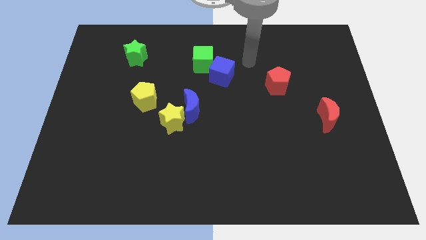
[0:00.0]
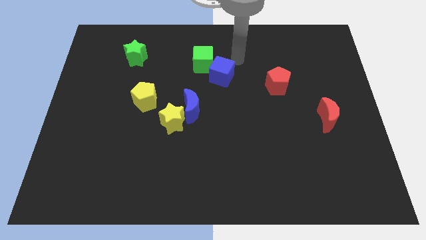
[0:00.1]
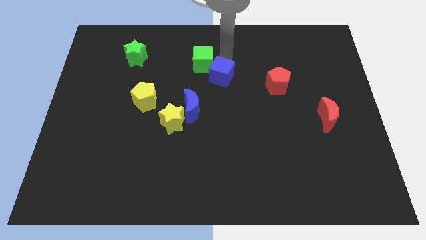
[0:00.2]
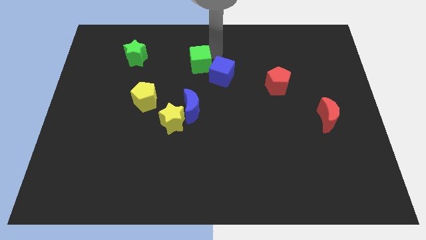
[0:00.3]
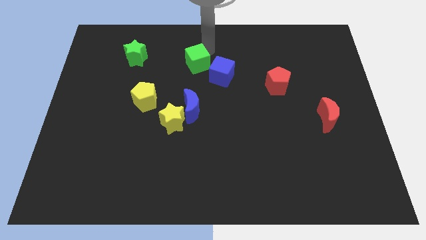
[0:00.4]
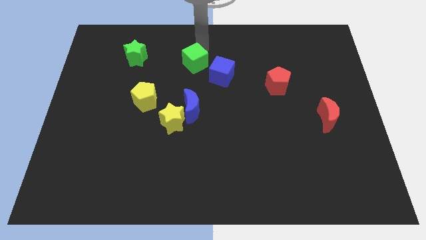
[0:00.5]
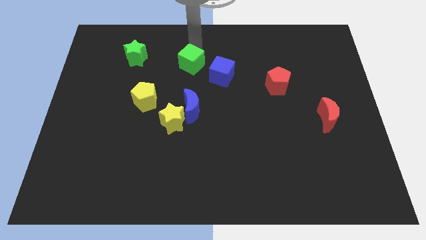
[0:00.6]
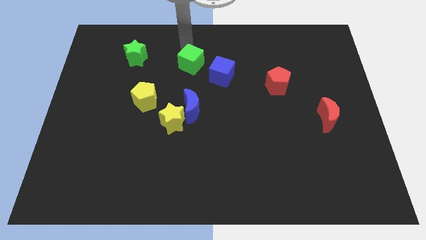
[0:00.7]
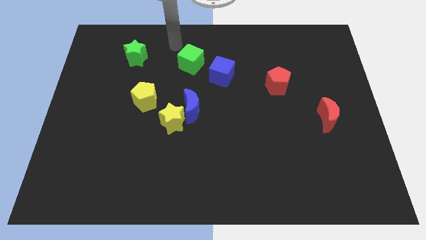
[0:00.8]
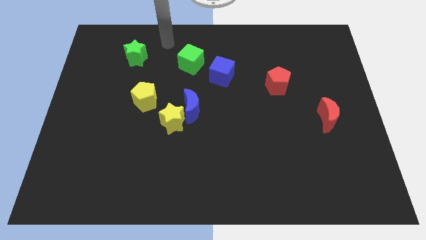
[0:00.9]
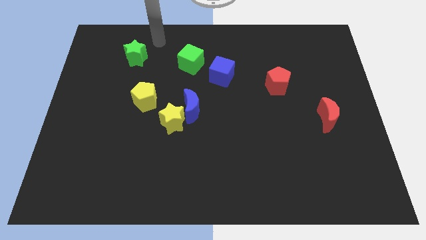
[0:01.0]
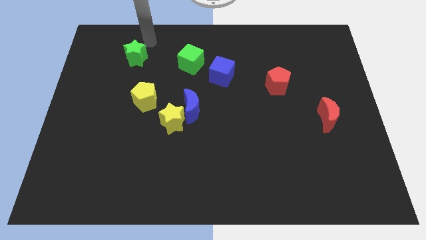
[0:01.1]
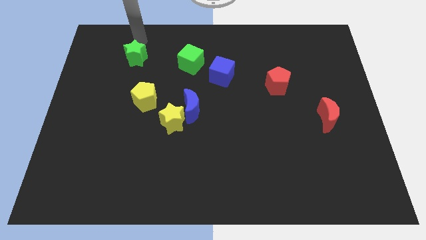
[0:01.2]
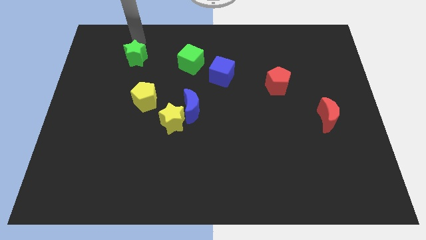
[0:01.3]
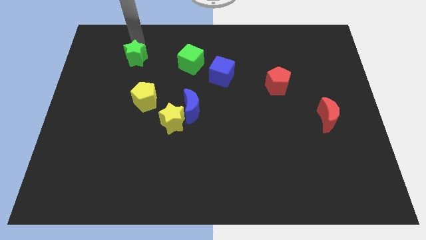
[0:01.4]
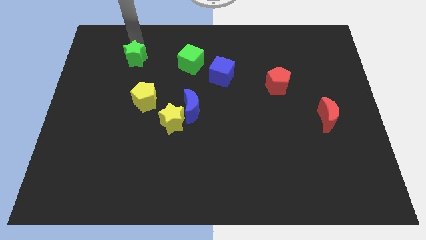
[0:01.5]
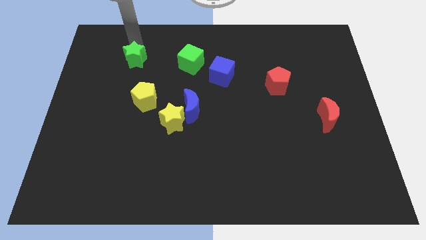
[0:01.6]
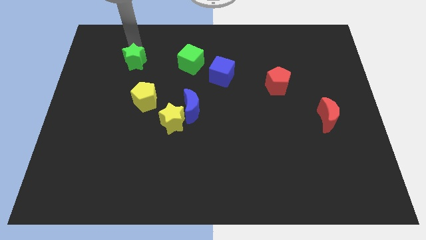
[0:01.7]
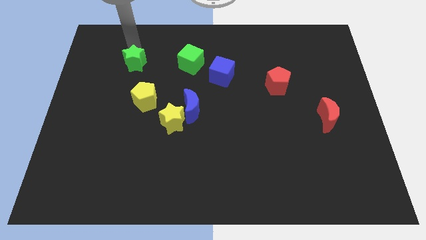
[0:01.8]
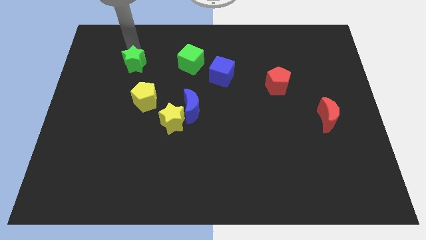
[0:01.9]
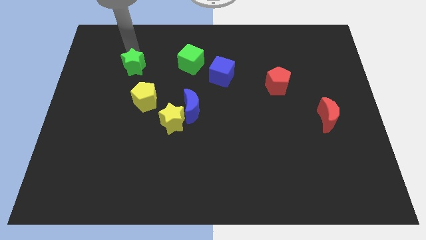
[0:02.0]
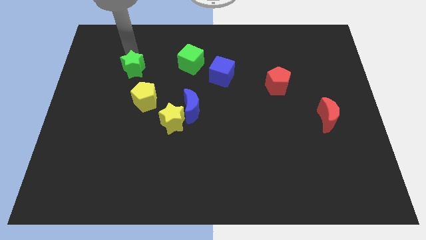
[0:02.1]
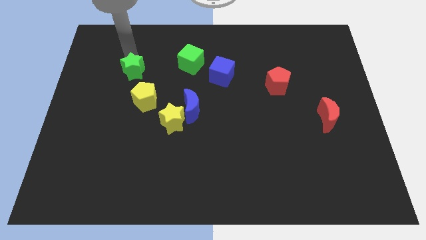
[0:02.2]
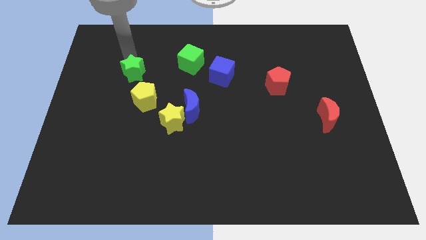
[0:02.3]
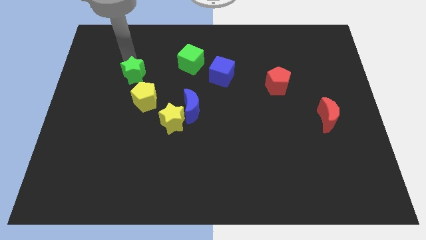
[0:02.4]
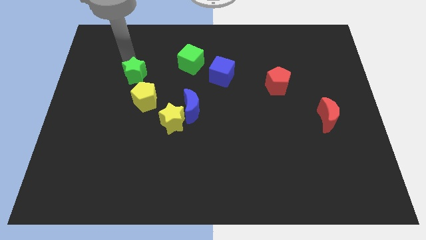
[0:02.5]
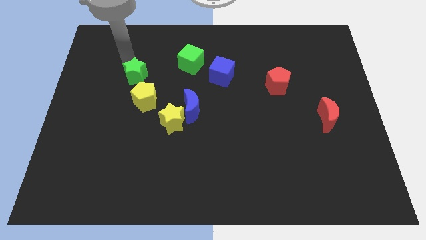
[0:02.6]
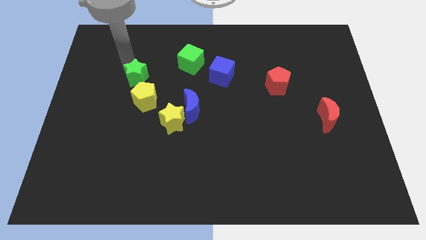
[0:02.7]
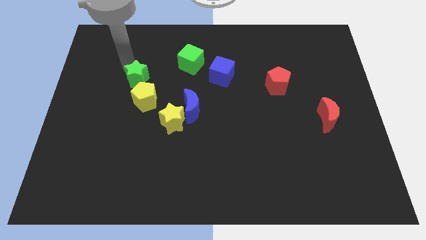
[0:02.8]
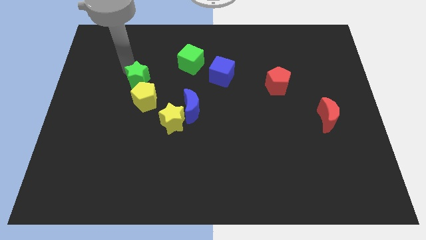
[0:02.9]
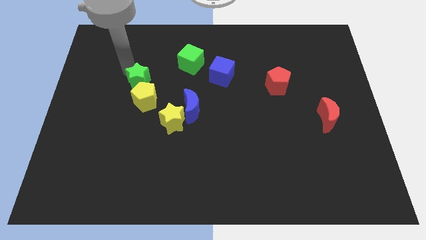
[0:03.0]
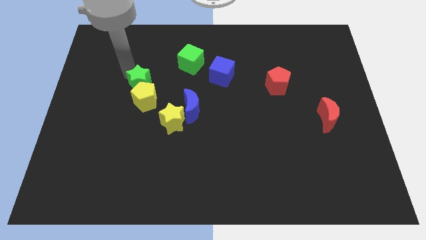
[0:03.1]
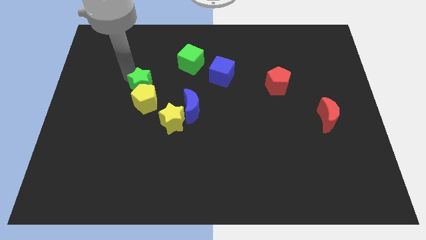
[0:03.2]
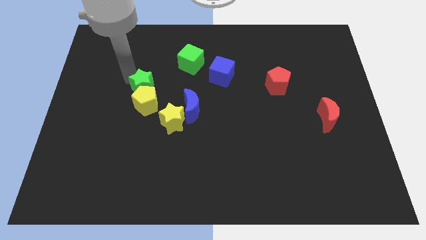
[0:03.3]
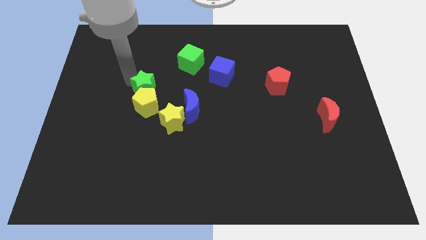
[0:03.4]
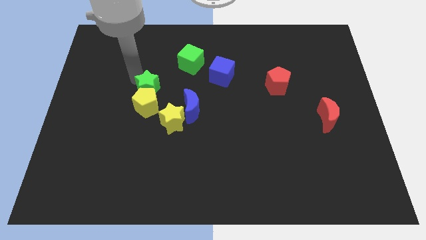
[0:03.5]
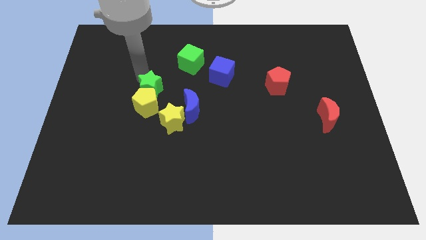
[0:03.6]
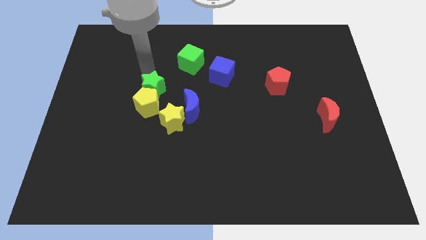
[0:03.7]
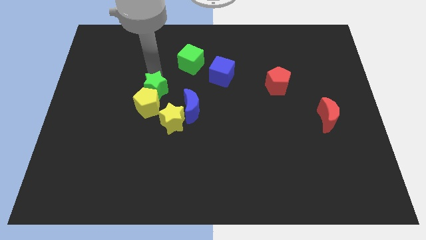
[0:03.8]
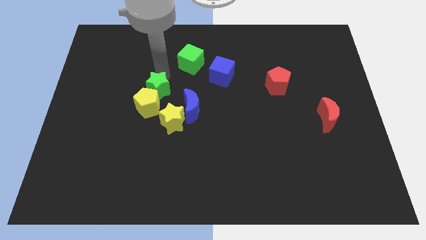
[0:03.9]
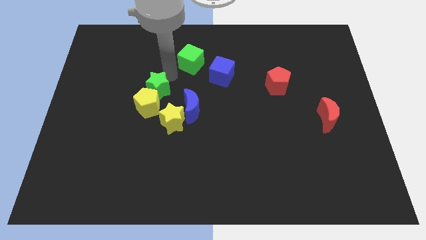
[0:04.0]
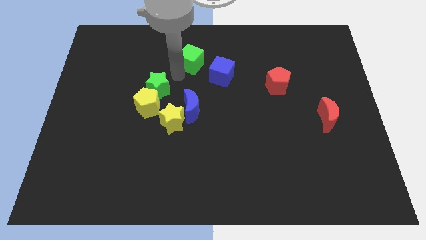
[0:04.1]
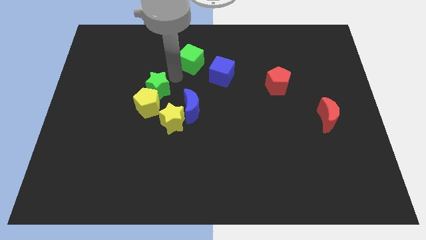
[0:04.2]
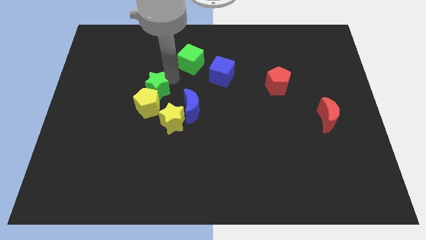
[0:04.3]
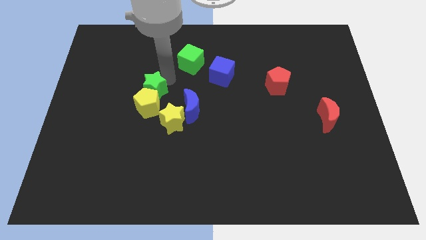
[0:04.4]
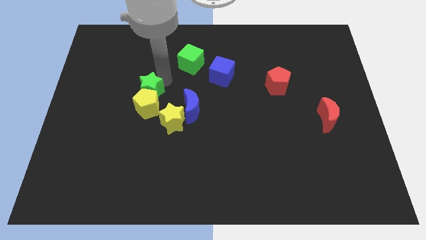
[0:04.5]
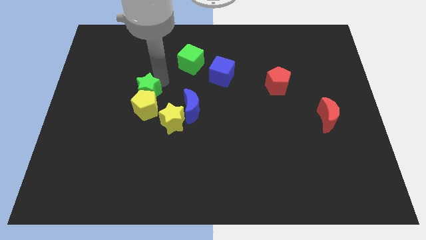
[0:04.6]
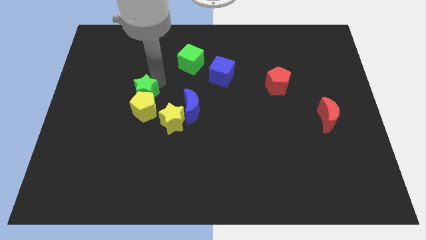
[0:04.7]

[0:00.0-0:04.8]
push the green star just left of the blue moon

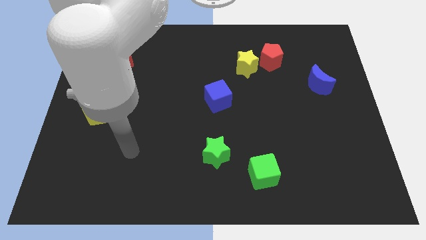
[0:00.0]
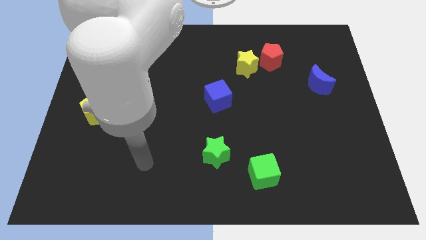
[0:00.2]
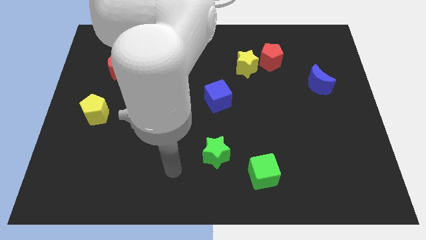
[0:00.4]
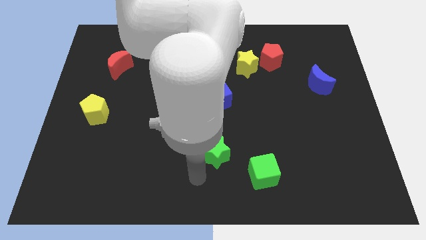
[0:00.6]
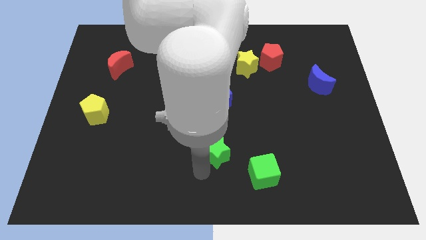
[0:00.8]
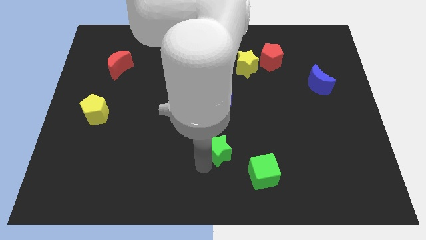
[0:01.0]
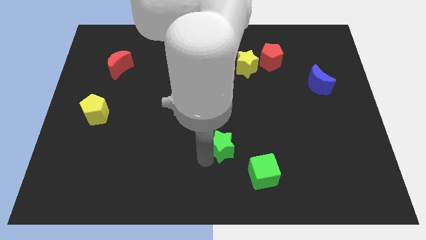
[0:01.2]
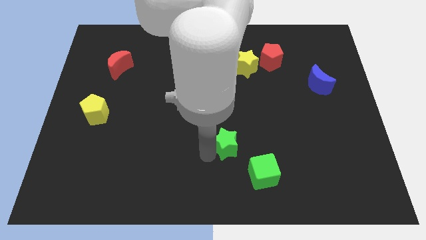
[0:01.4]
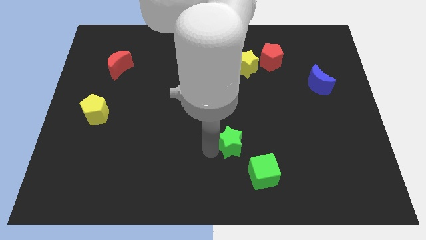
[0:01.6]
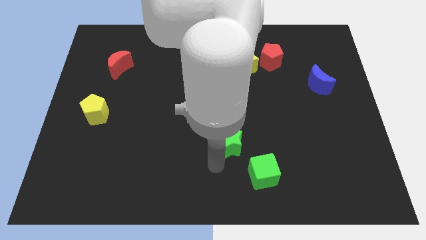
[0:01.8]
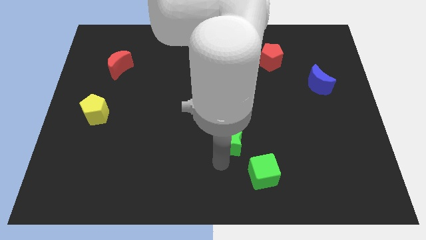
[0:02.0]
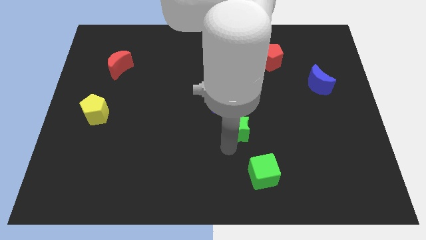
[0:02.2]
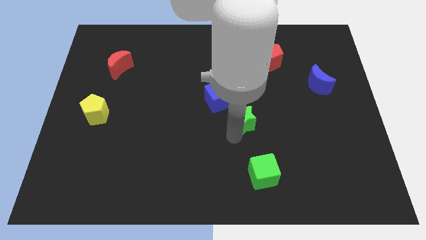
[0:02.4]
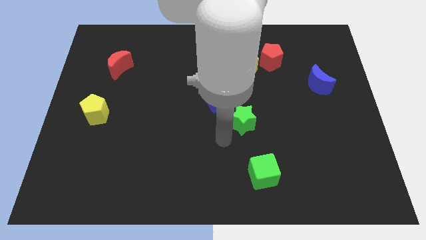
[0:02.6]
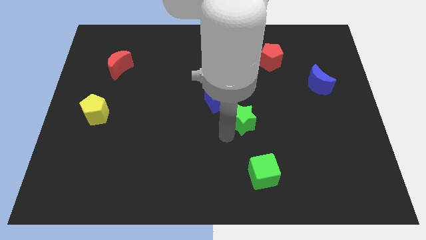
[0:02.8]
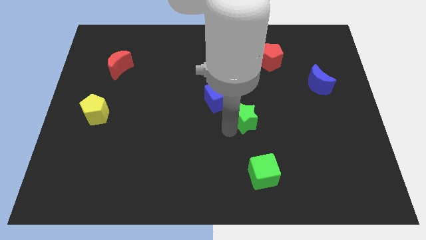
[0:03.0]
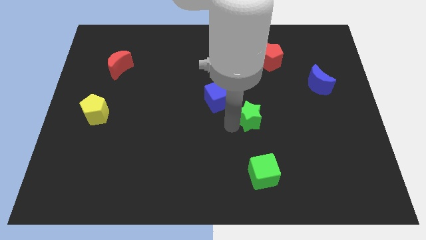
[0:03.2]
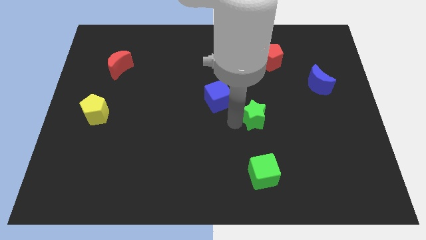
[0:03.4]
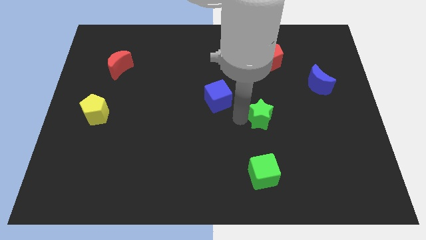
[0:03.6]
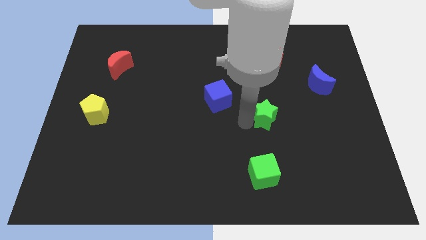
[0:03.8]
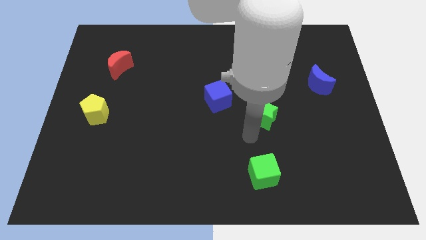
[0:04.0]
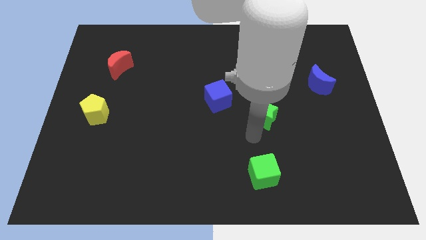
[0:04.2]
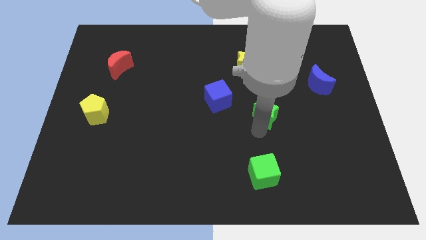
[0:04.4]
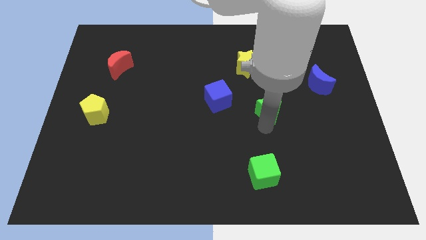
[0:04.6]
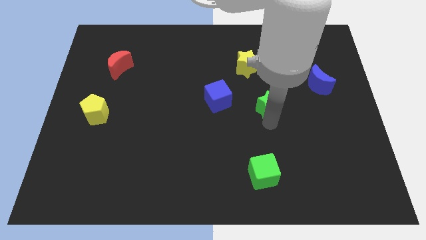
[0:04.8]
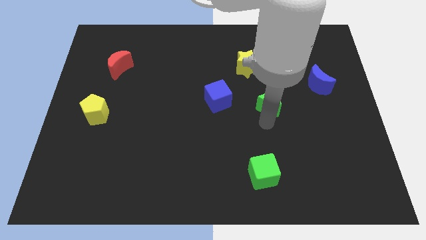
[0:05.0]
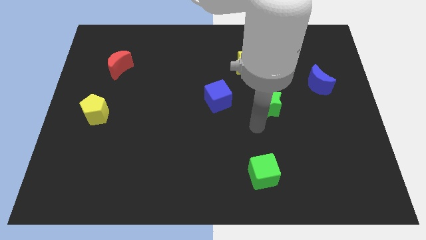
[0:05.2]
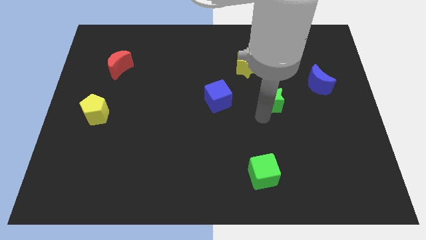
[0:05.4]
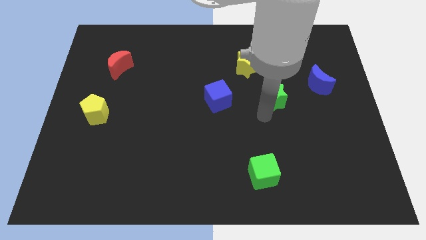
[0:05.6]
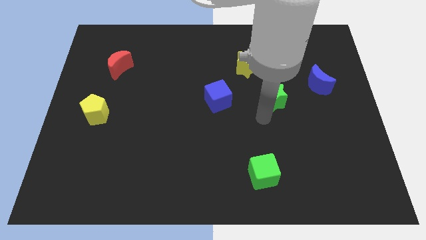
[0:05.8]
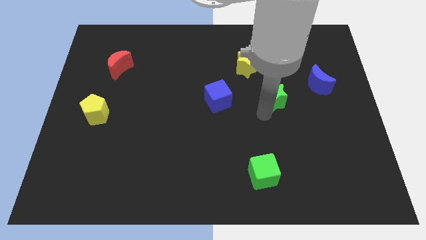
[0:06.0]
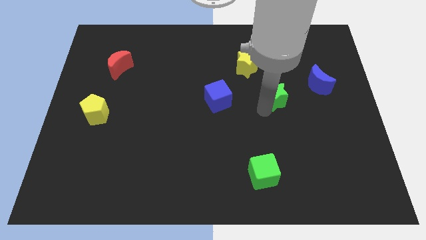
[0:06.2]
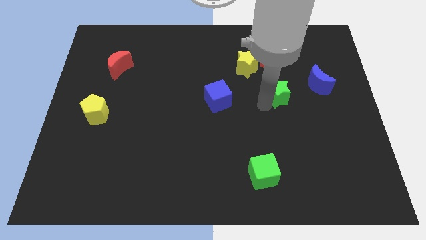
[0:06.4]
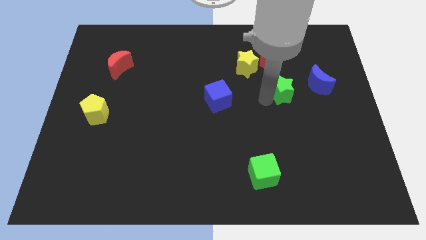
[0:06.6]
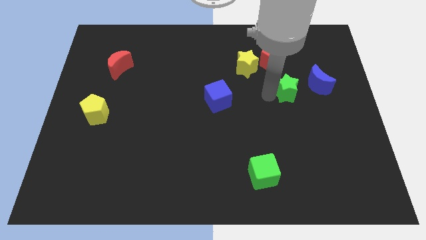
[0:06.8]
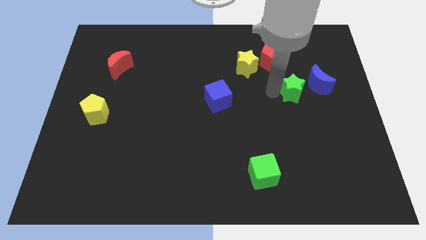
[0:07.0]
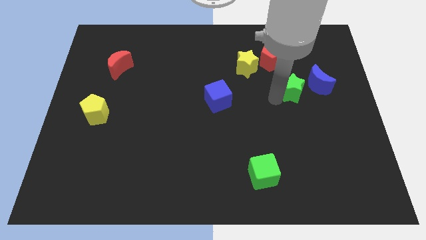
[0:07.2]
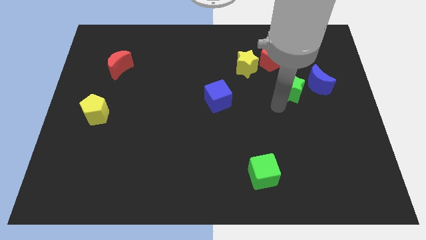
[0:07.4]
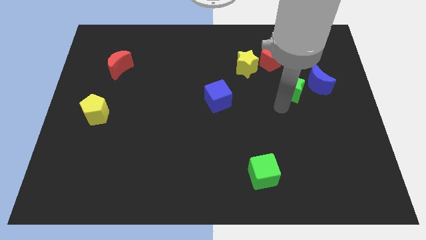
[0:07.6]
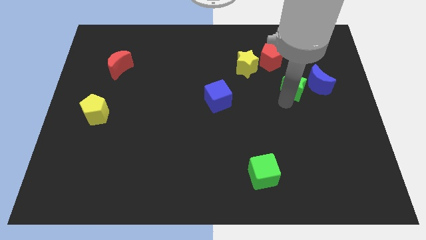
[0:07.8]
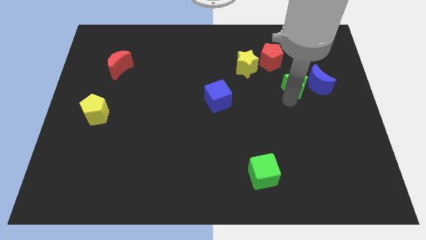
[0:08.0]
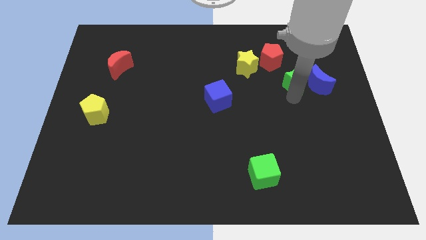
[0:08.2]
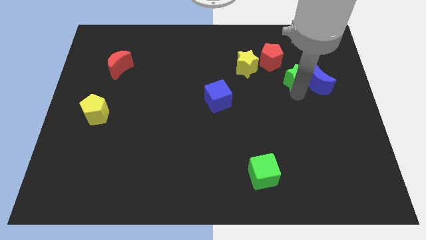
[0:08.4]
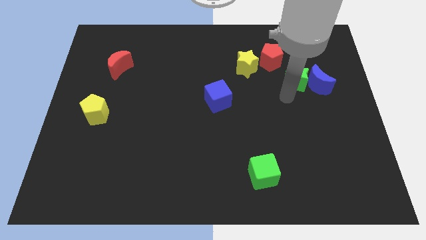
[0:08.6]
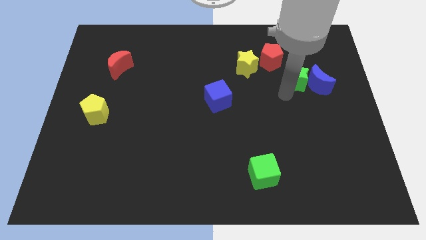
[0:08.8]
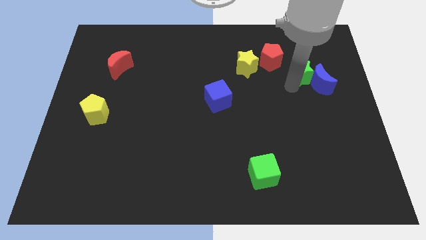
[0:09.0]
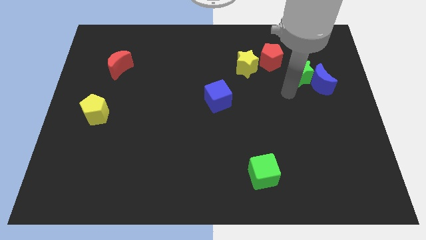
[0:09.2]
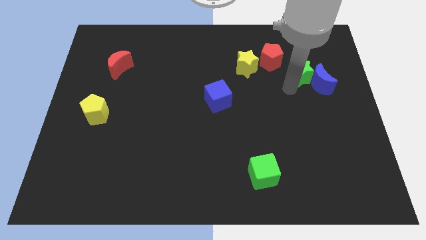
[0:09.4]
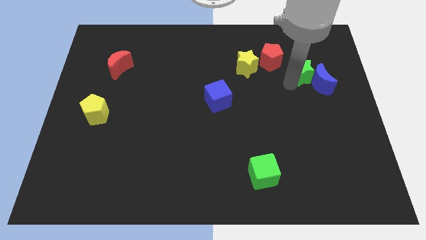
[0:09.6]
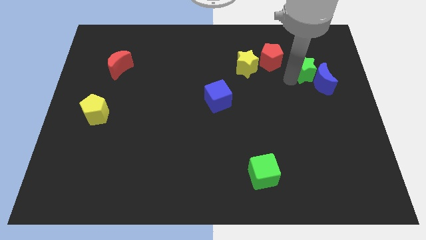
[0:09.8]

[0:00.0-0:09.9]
push the green star to the right of the red pentagon
